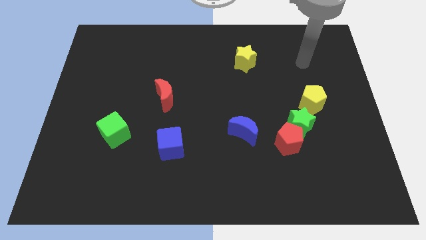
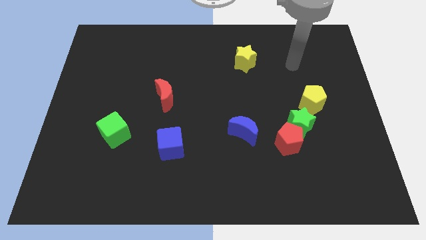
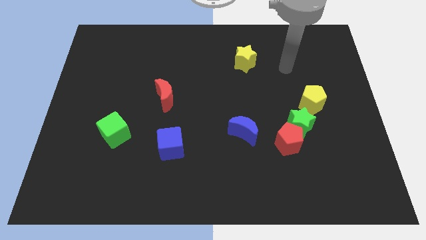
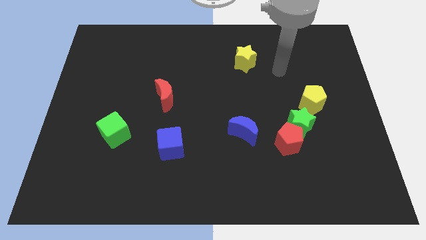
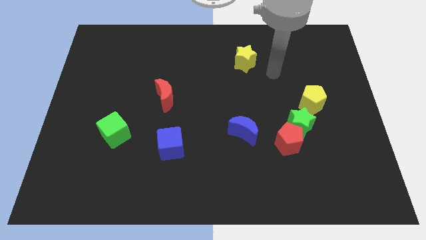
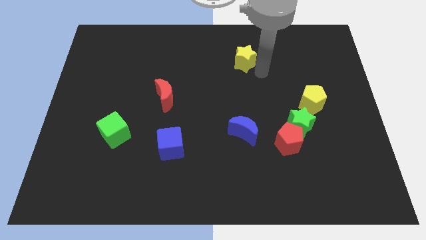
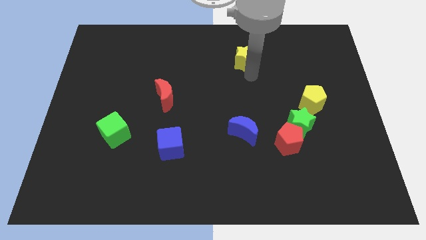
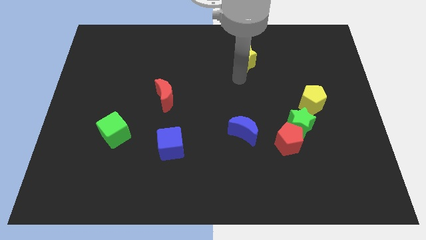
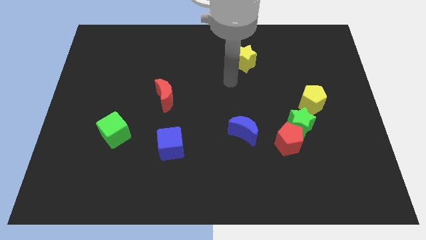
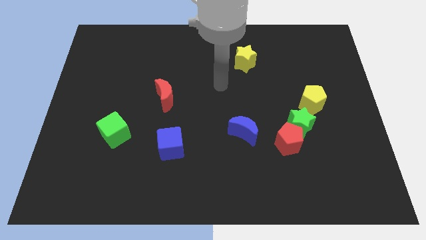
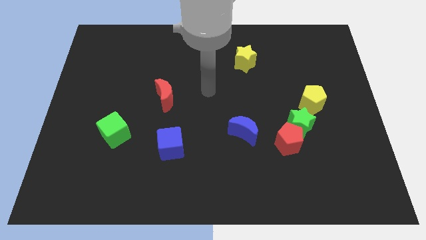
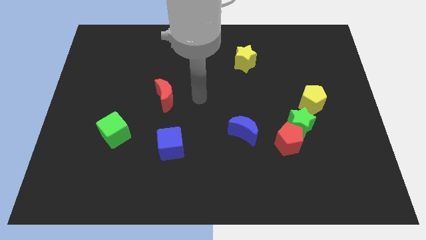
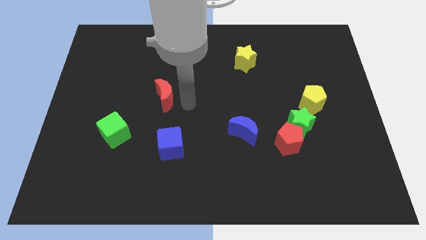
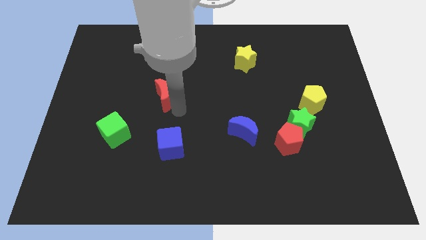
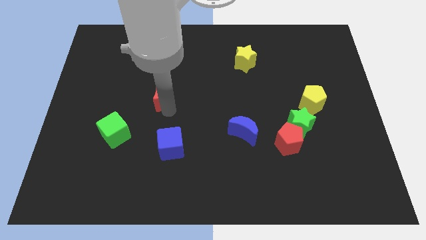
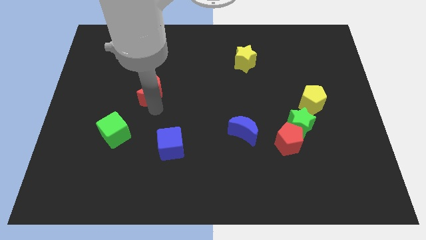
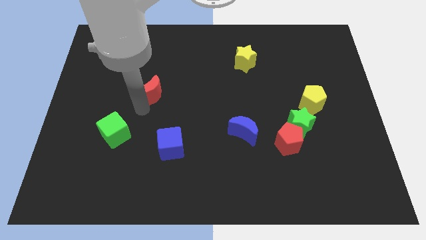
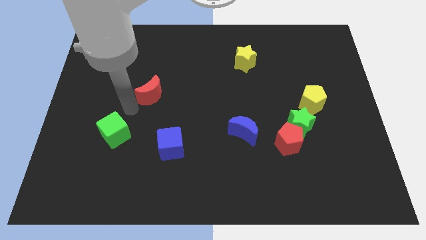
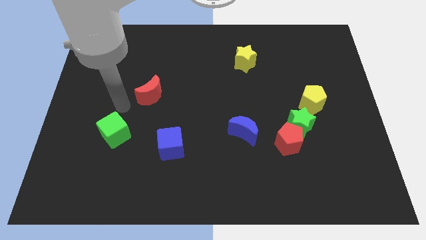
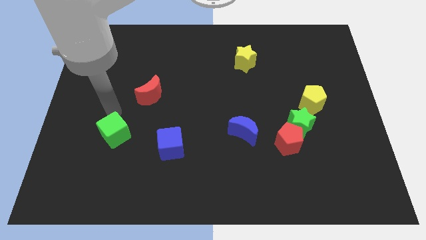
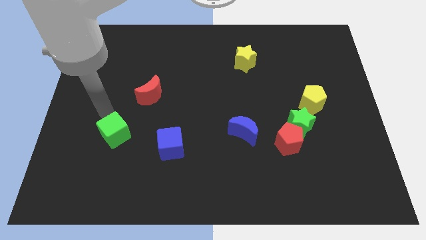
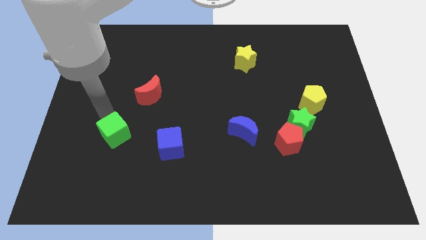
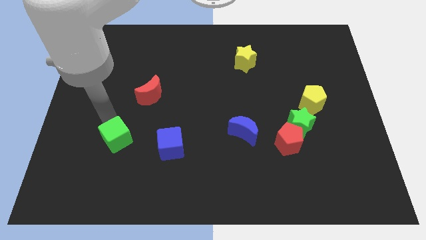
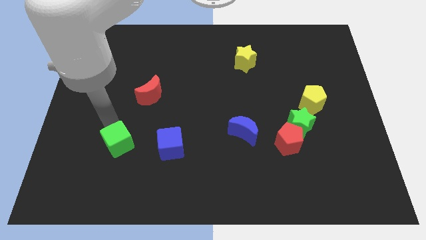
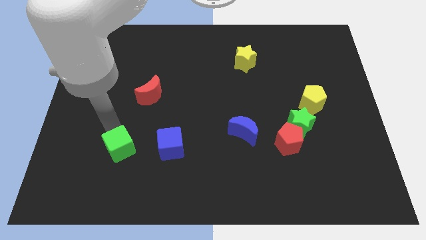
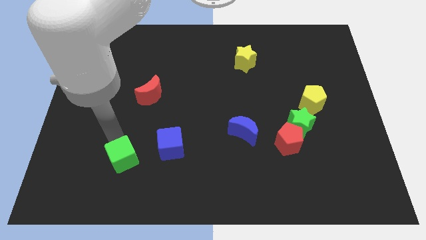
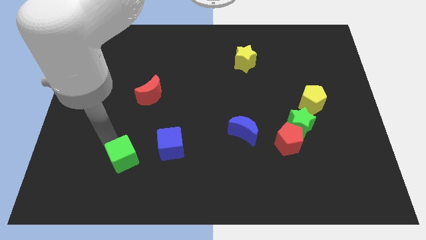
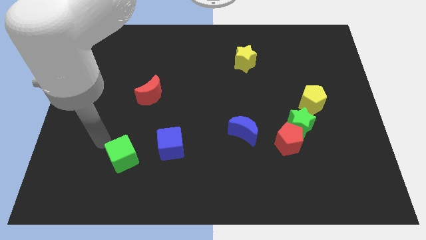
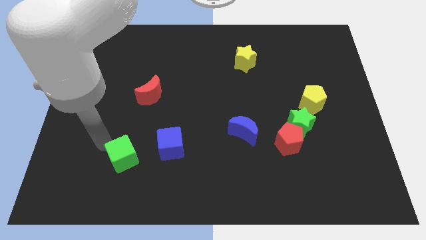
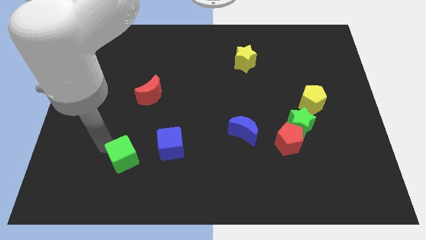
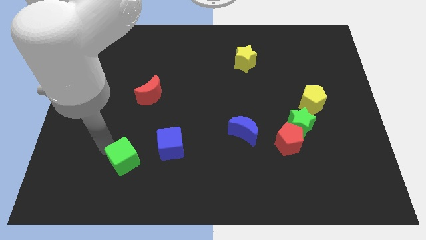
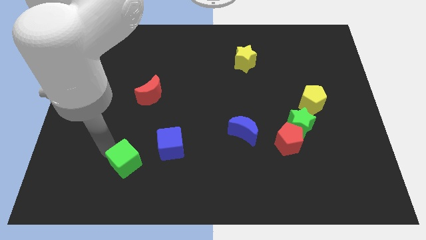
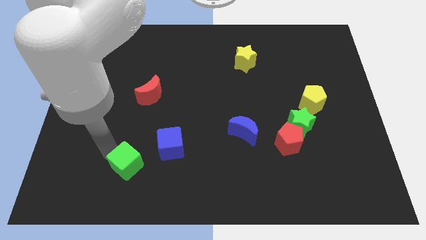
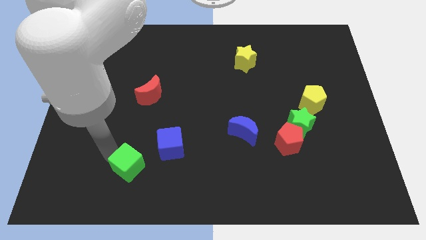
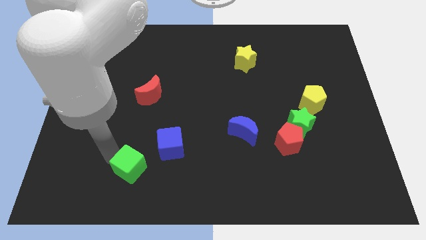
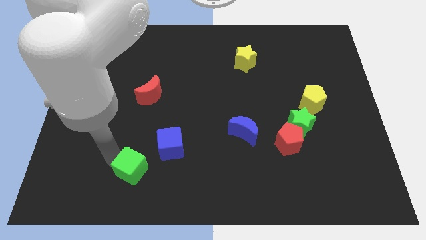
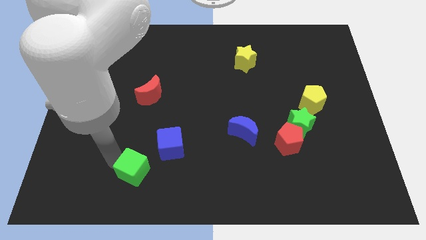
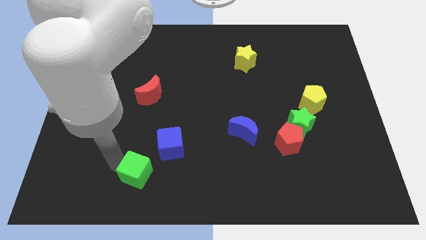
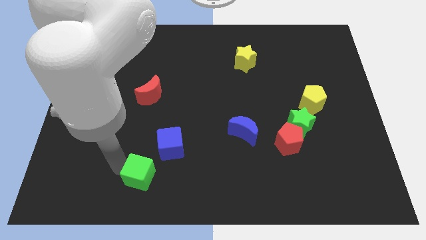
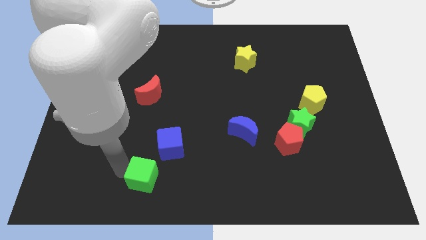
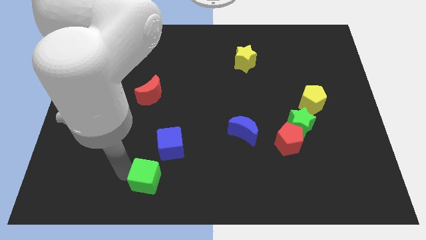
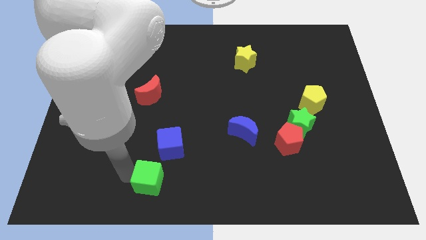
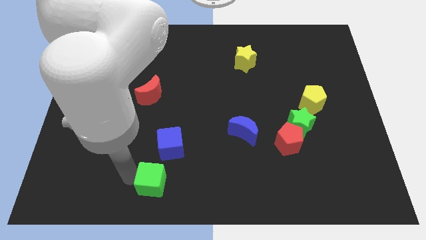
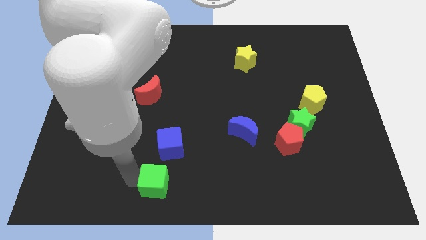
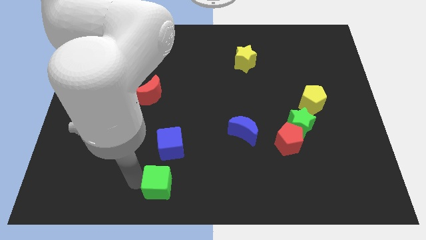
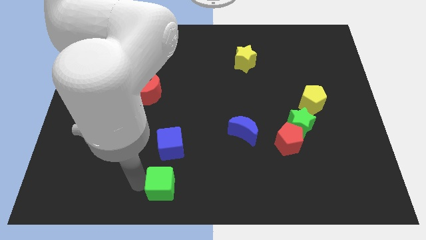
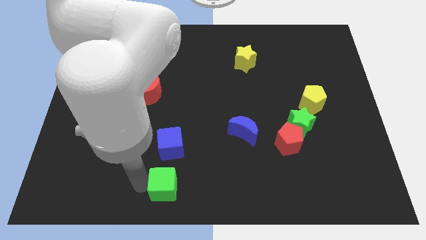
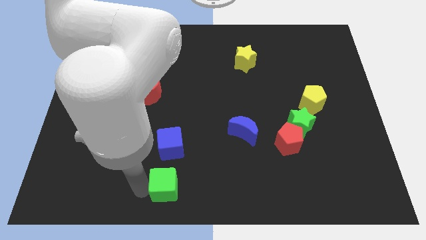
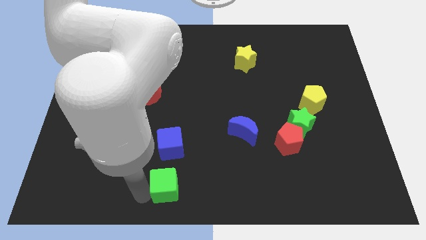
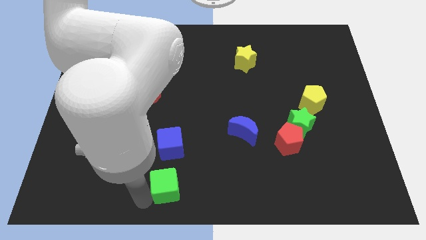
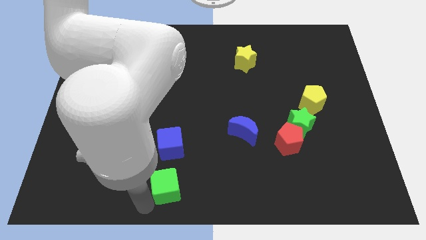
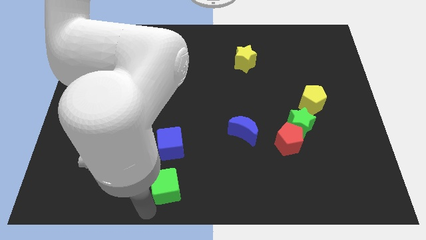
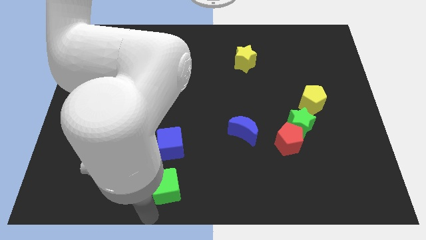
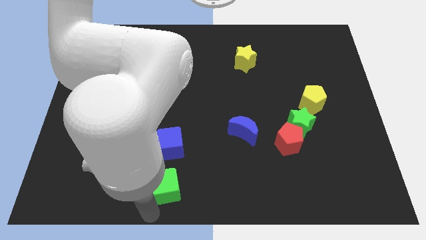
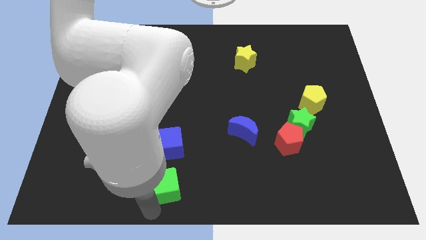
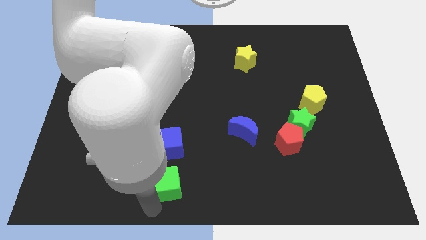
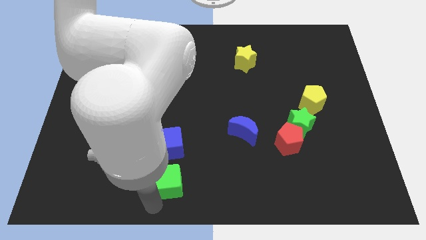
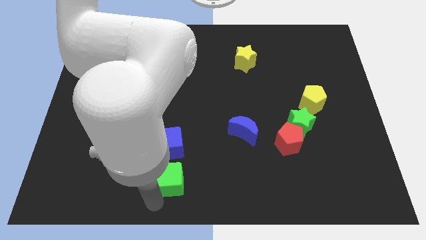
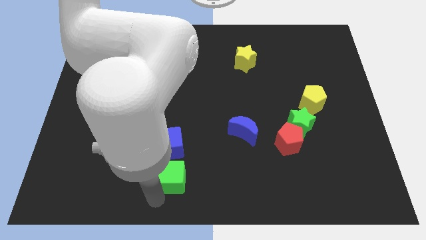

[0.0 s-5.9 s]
move the green cube to the bottom right side of the blue cube

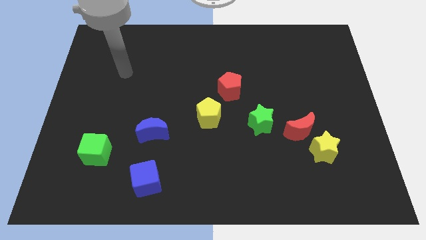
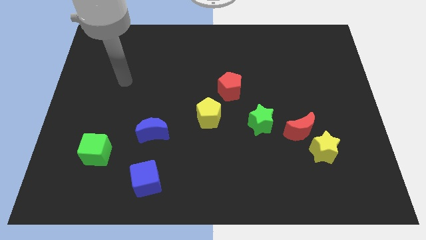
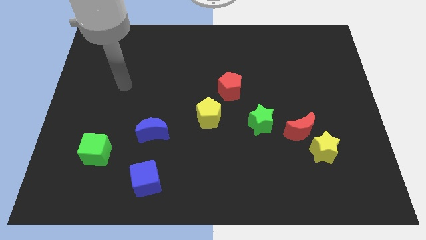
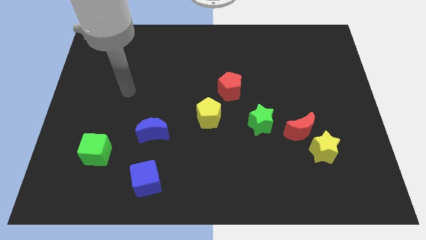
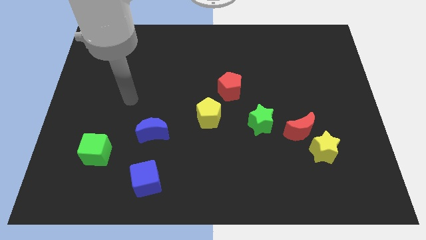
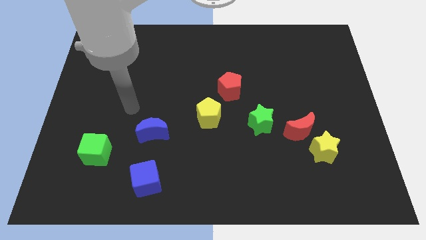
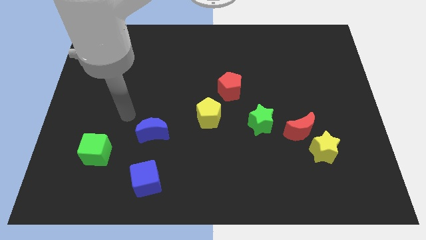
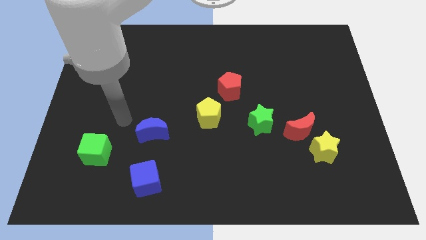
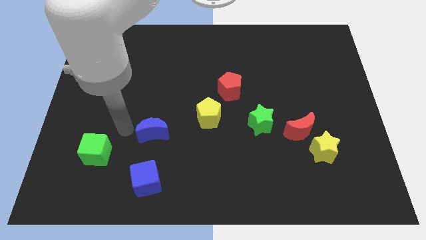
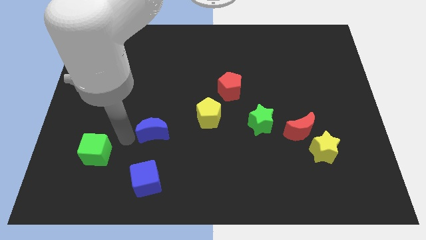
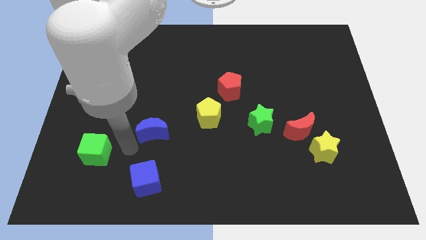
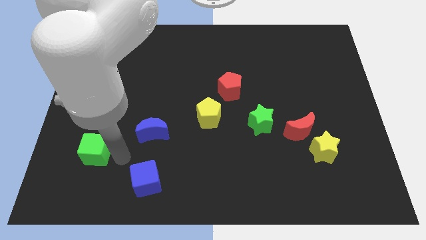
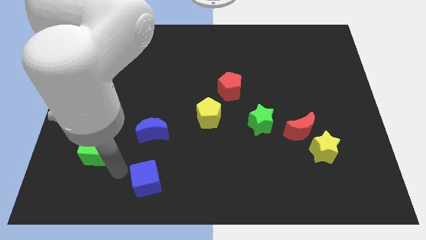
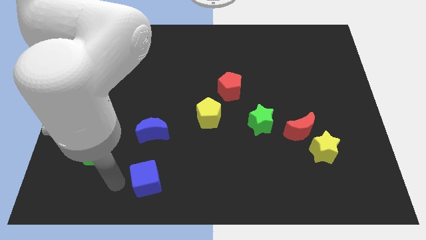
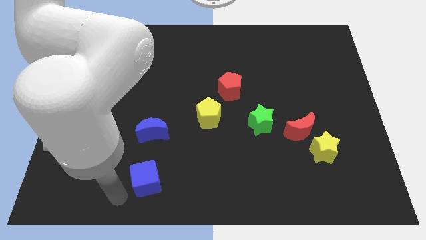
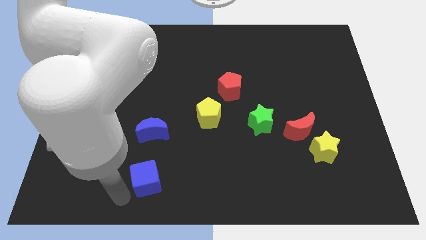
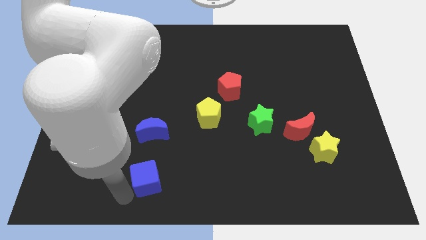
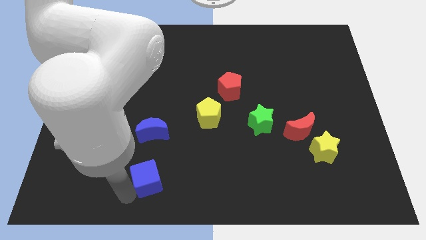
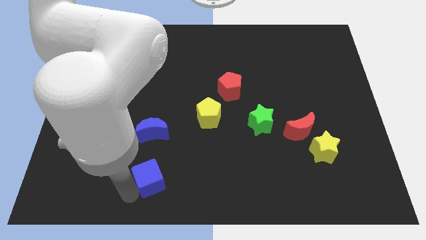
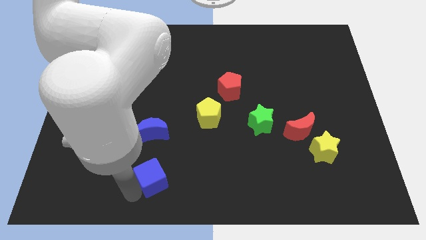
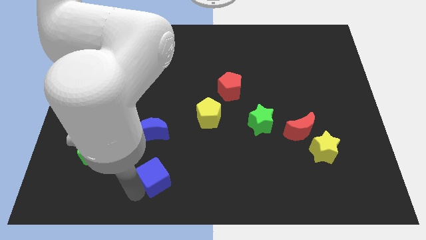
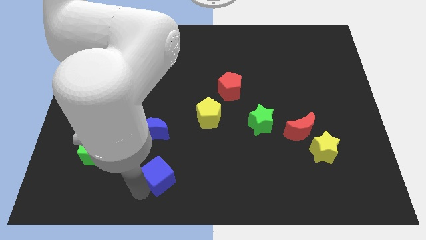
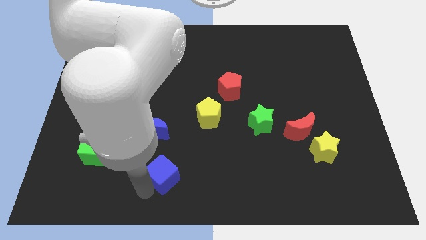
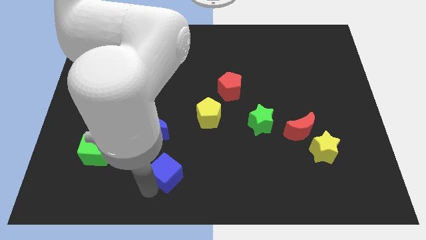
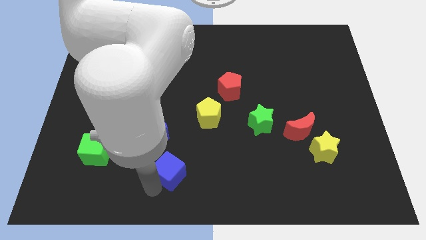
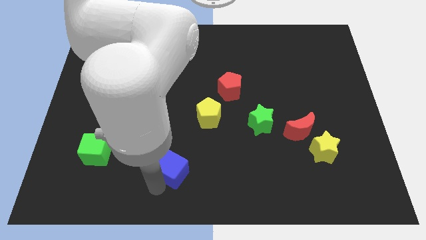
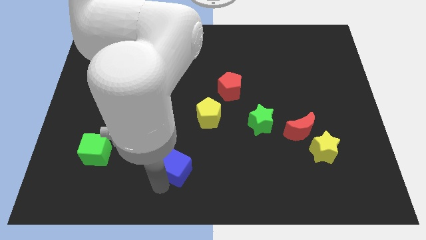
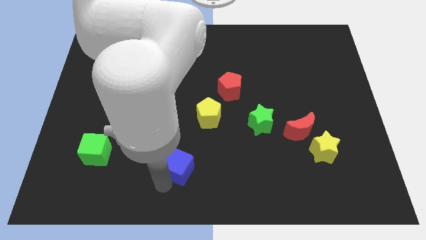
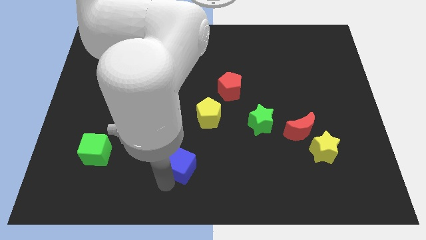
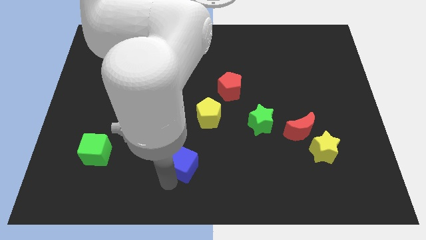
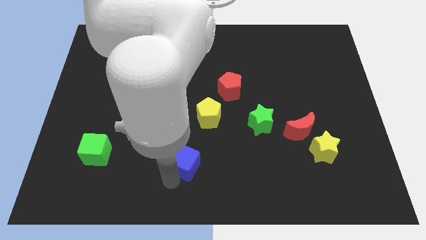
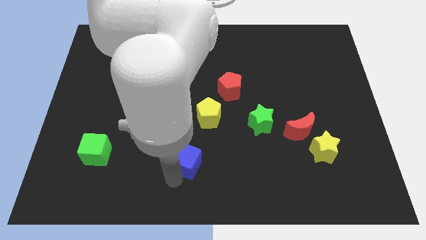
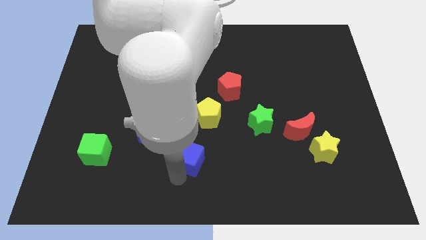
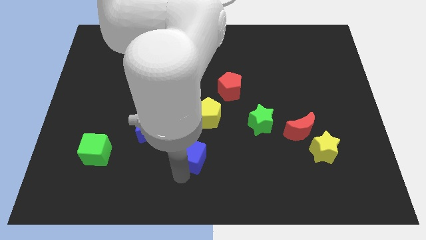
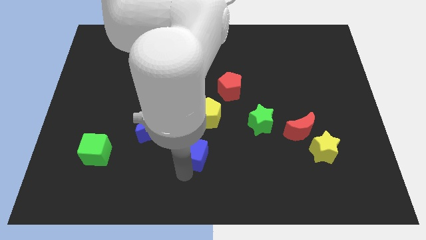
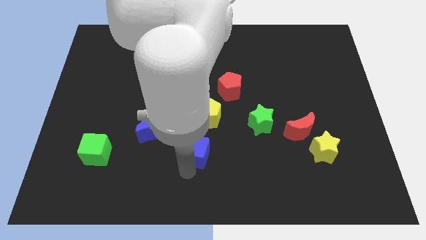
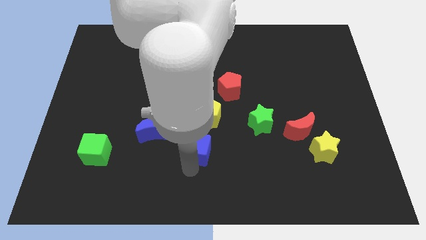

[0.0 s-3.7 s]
slide the blue cube right of the blue moon
